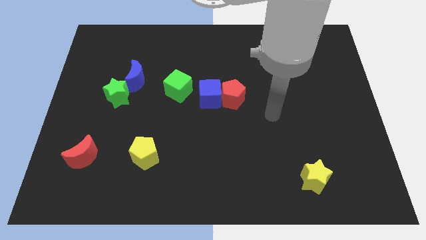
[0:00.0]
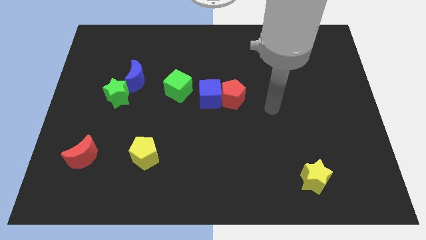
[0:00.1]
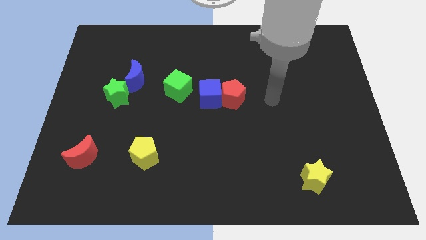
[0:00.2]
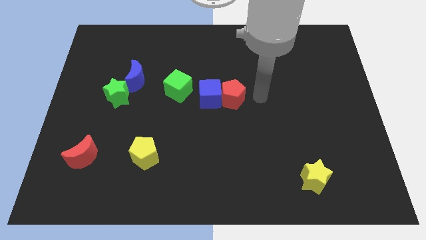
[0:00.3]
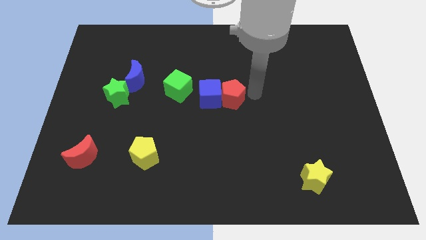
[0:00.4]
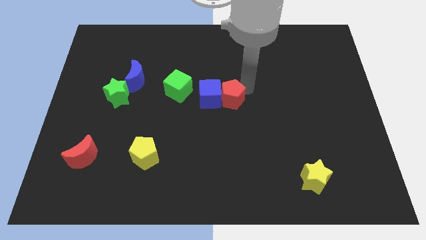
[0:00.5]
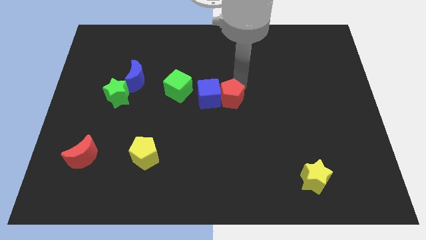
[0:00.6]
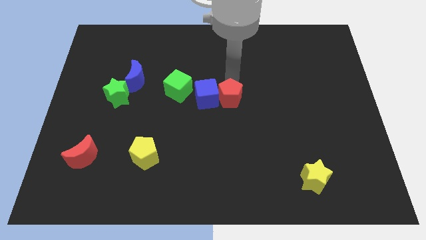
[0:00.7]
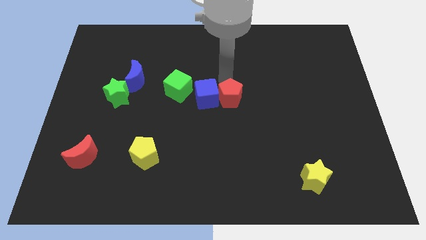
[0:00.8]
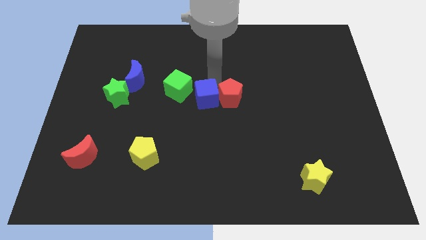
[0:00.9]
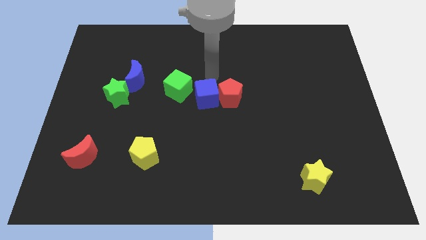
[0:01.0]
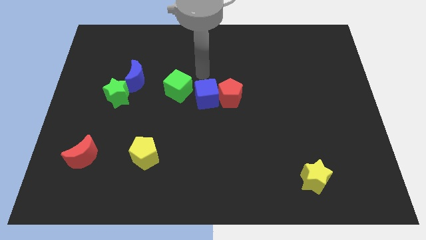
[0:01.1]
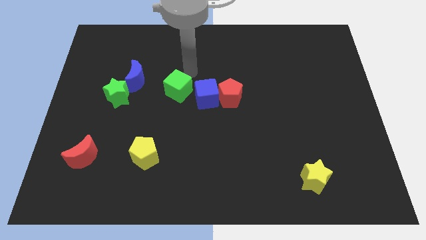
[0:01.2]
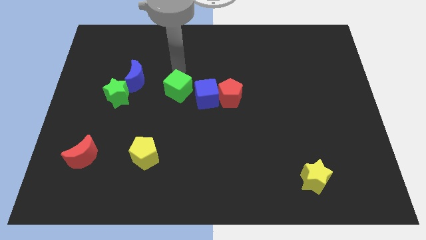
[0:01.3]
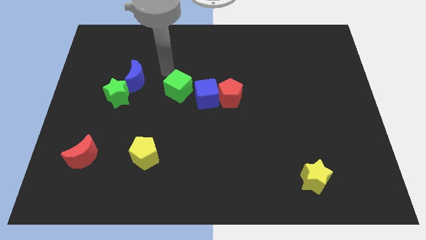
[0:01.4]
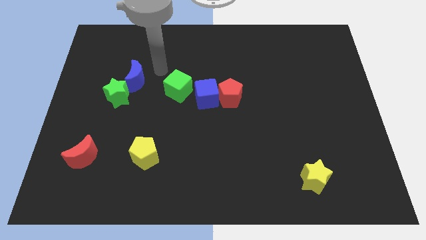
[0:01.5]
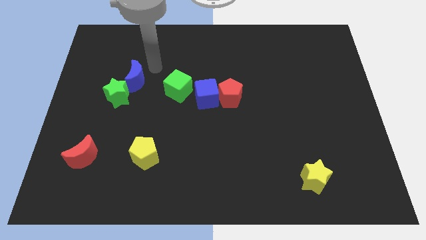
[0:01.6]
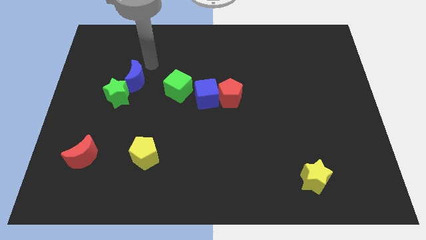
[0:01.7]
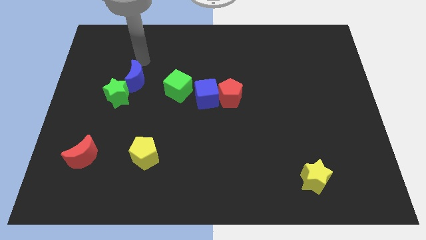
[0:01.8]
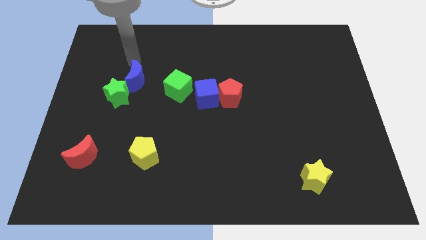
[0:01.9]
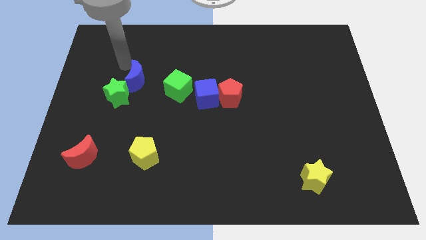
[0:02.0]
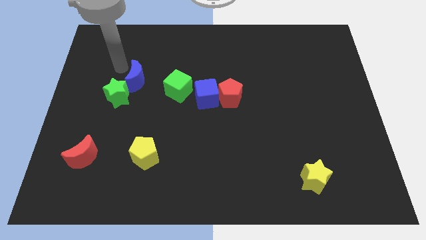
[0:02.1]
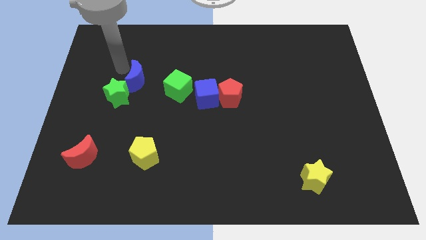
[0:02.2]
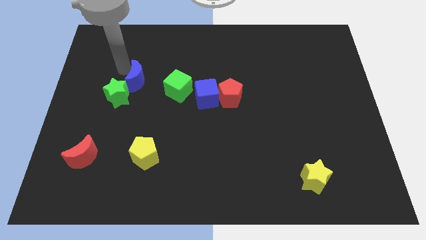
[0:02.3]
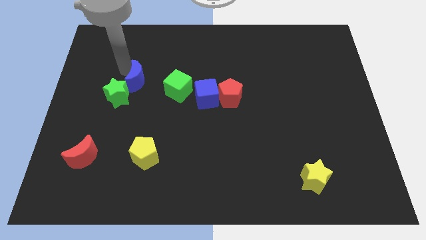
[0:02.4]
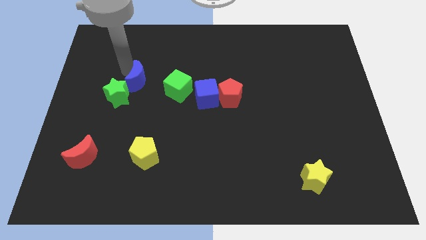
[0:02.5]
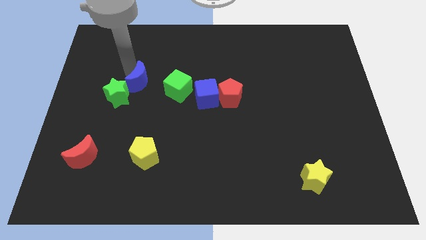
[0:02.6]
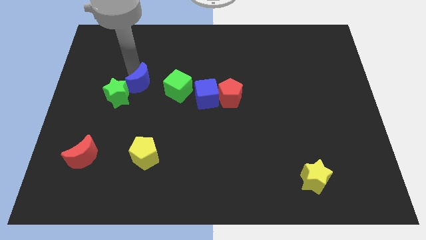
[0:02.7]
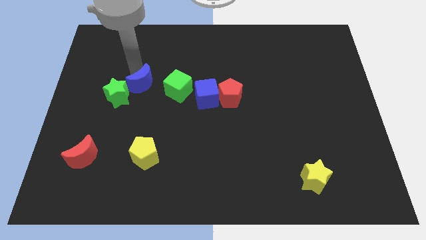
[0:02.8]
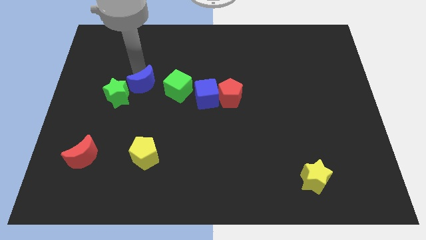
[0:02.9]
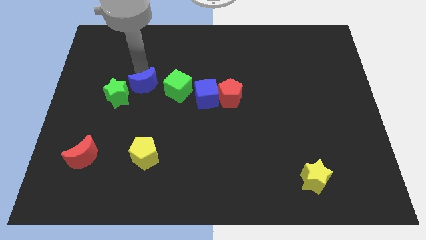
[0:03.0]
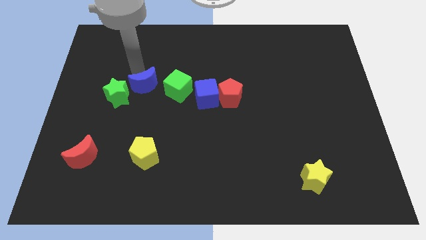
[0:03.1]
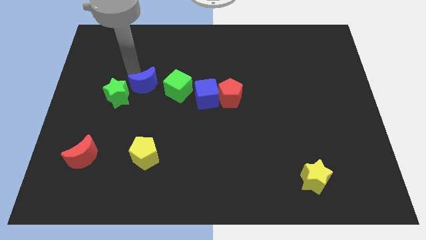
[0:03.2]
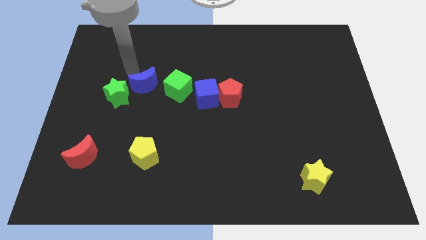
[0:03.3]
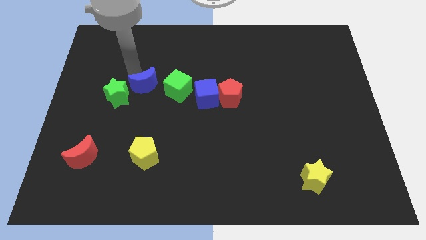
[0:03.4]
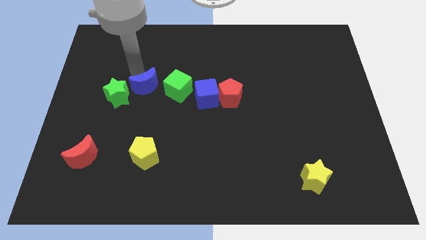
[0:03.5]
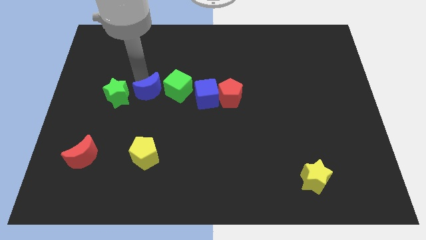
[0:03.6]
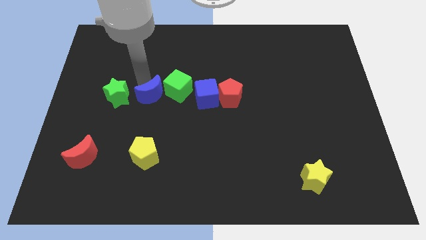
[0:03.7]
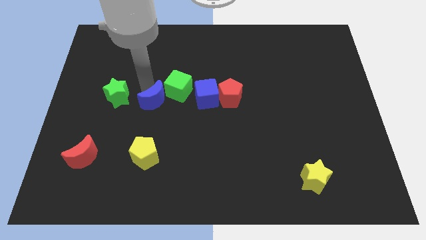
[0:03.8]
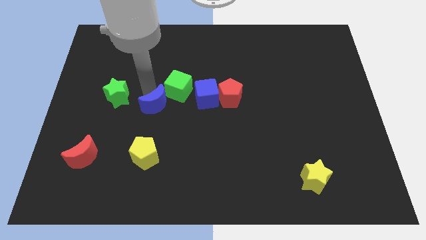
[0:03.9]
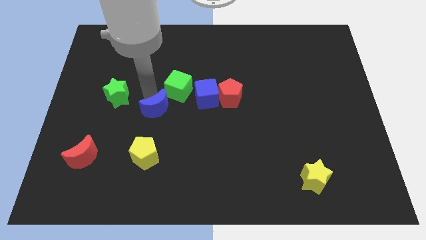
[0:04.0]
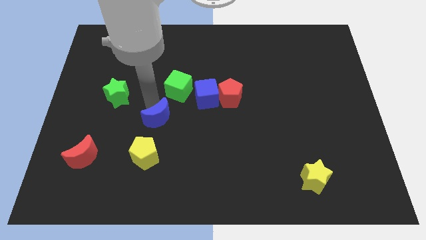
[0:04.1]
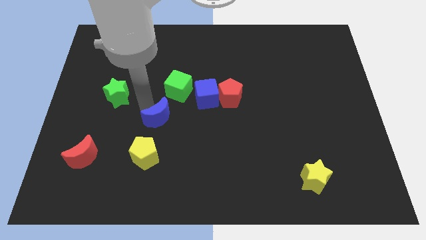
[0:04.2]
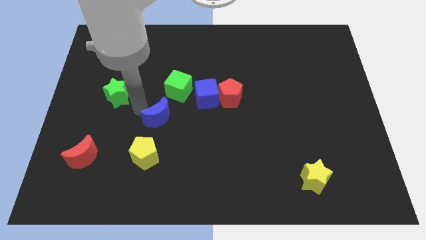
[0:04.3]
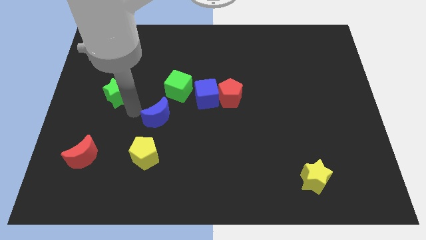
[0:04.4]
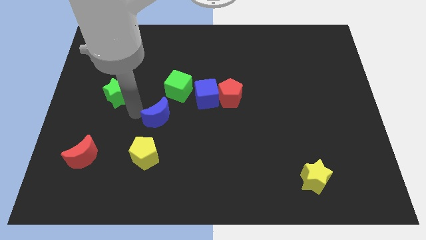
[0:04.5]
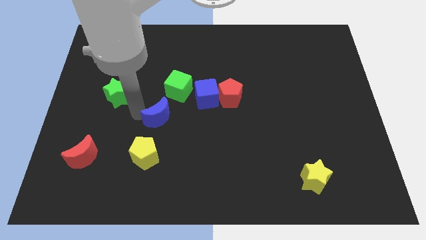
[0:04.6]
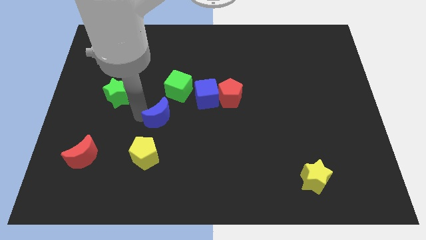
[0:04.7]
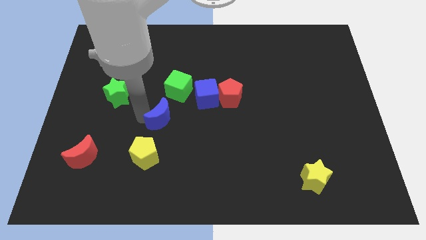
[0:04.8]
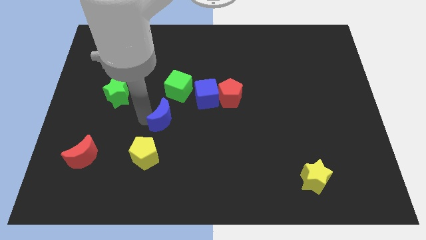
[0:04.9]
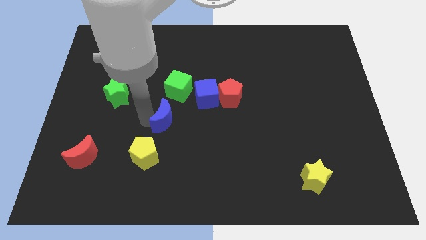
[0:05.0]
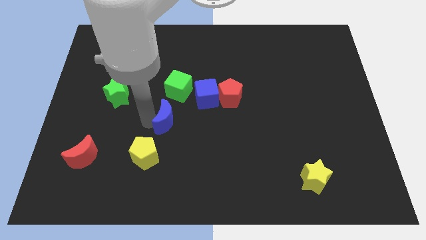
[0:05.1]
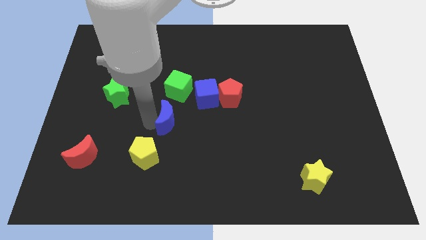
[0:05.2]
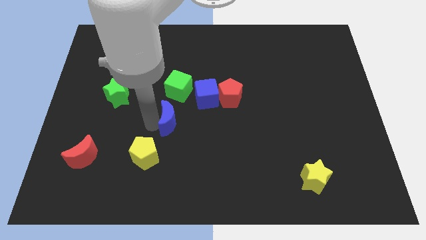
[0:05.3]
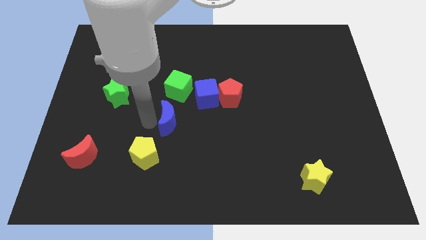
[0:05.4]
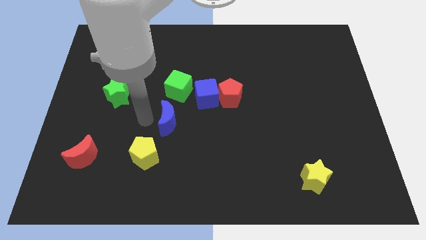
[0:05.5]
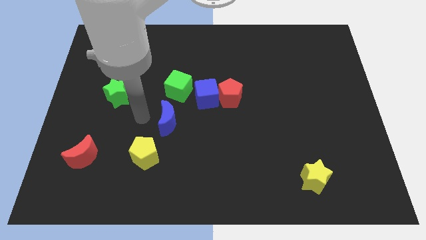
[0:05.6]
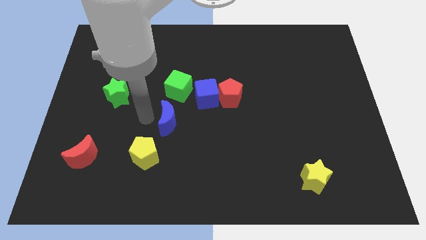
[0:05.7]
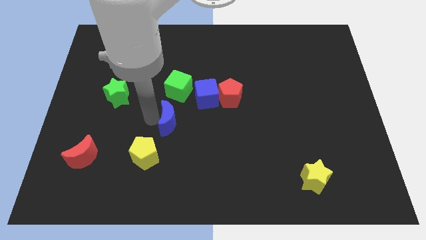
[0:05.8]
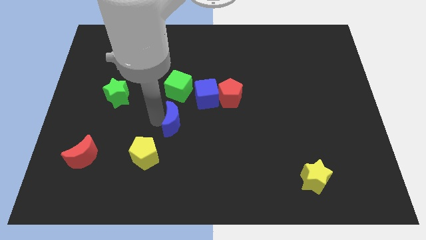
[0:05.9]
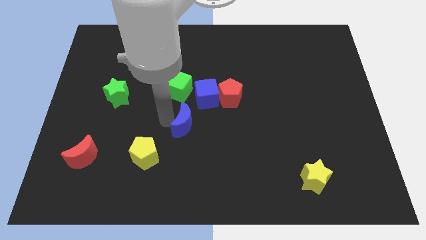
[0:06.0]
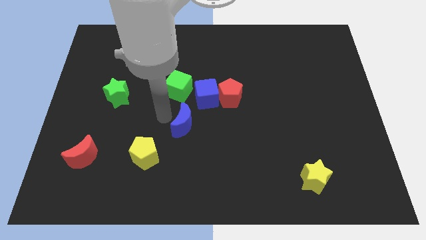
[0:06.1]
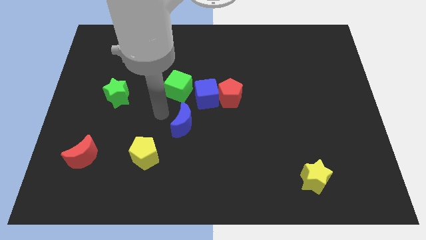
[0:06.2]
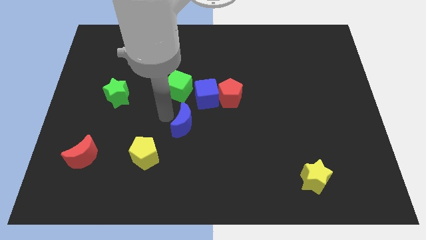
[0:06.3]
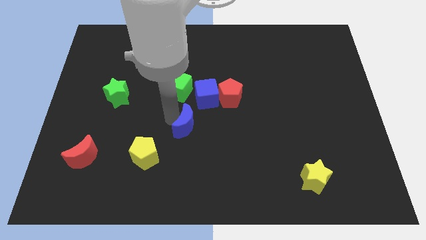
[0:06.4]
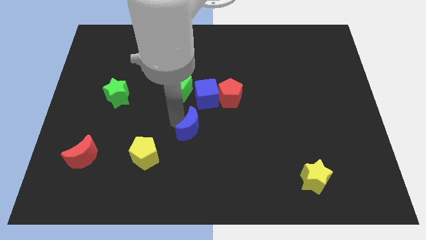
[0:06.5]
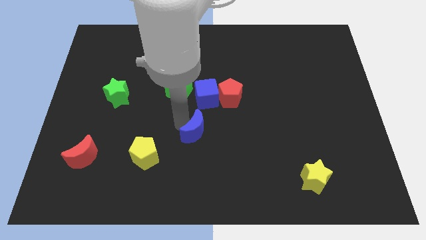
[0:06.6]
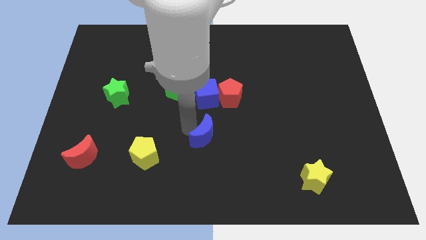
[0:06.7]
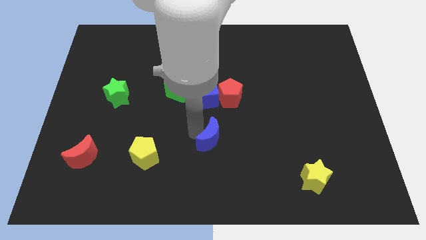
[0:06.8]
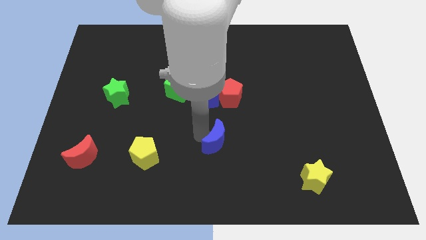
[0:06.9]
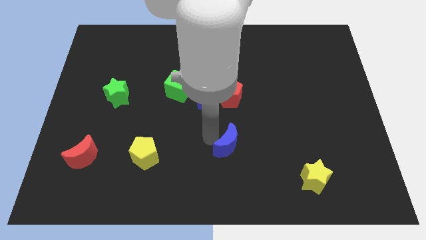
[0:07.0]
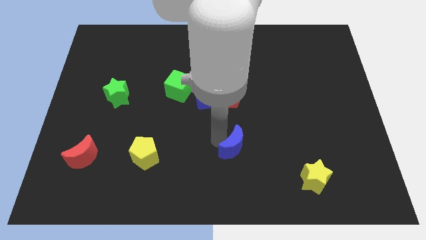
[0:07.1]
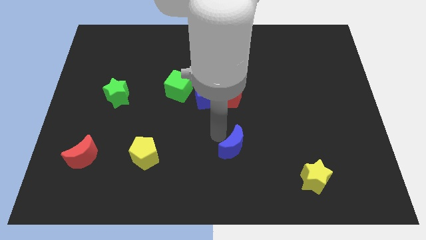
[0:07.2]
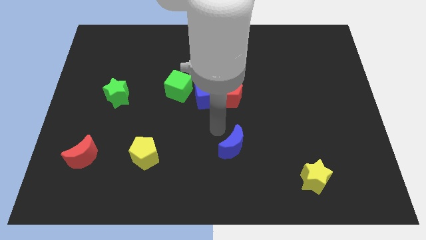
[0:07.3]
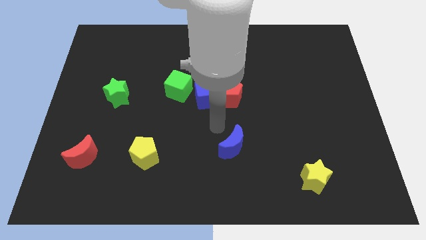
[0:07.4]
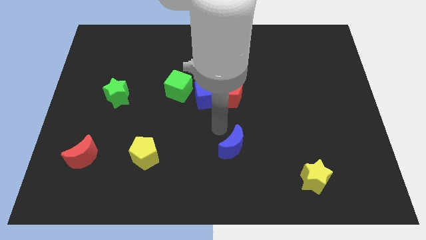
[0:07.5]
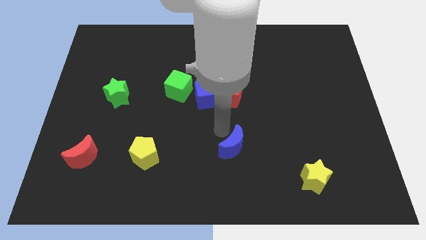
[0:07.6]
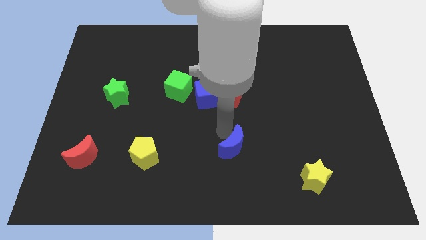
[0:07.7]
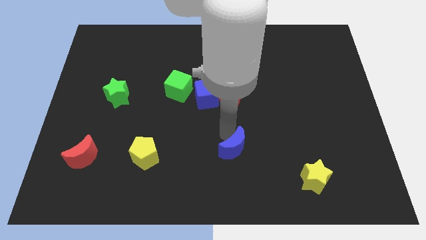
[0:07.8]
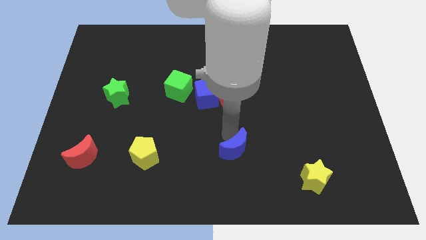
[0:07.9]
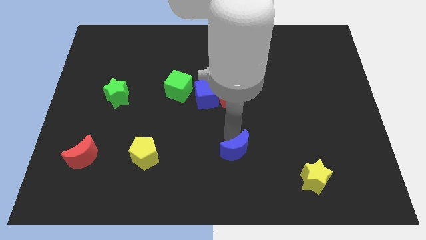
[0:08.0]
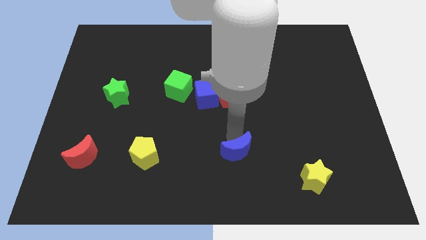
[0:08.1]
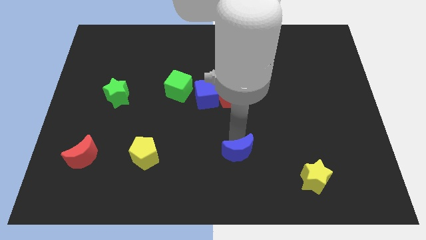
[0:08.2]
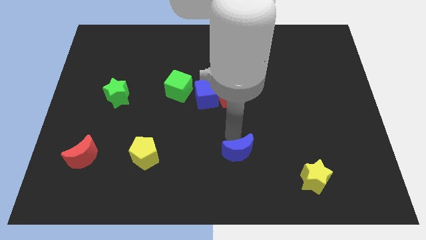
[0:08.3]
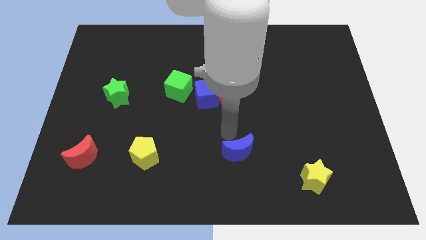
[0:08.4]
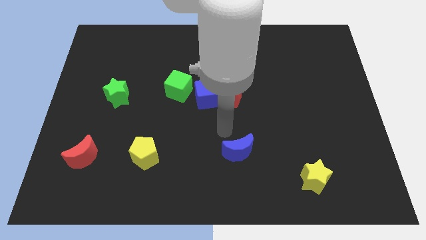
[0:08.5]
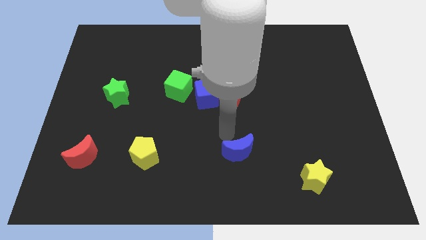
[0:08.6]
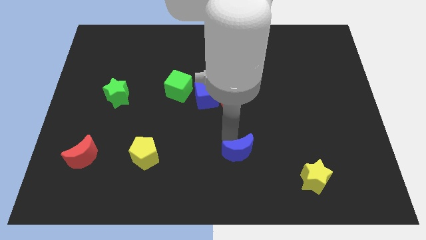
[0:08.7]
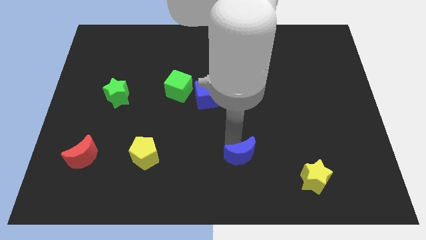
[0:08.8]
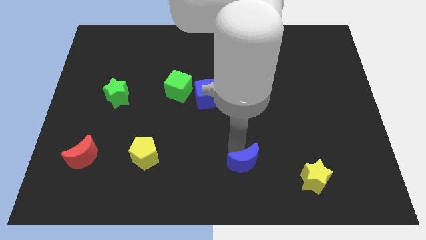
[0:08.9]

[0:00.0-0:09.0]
move the blue moon just left of the yellow star
